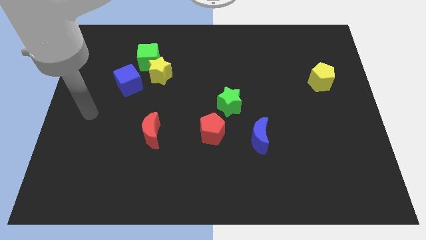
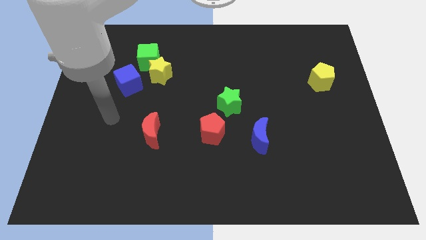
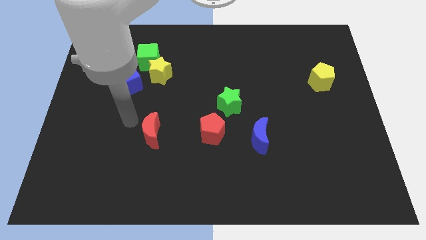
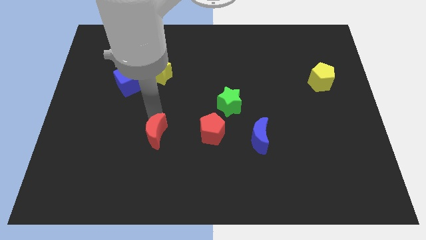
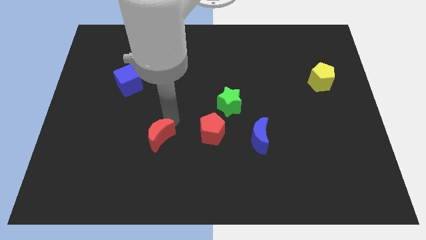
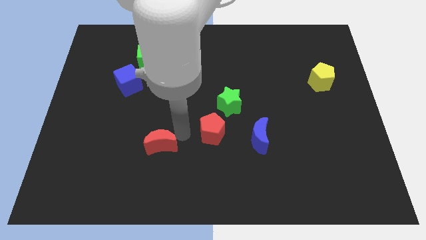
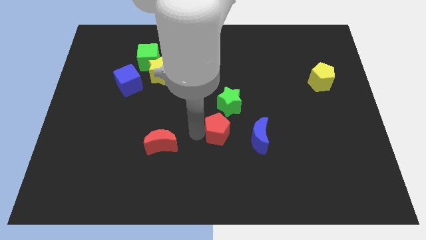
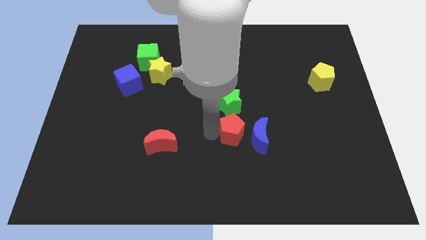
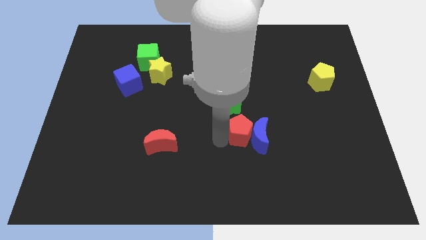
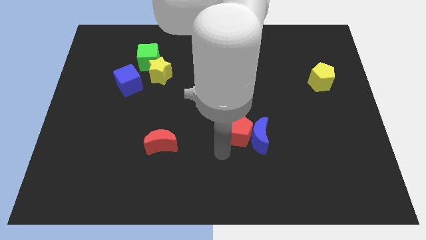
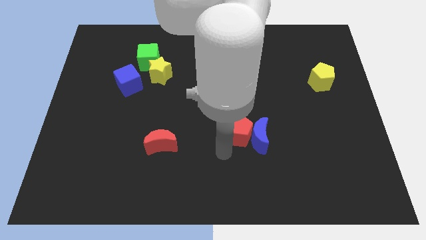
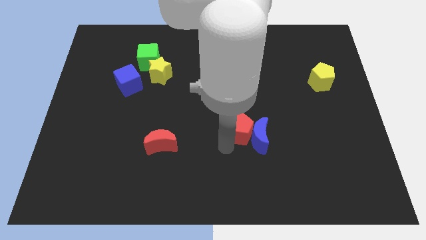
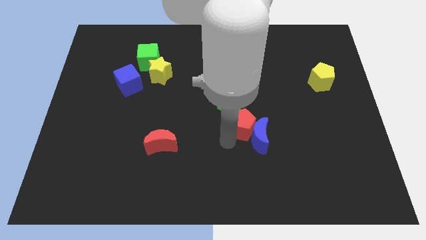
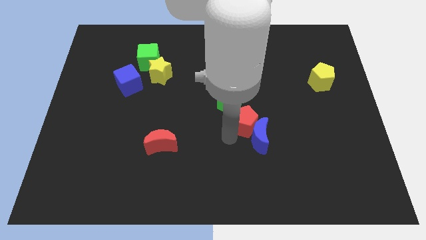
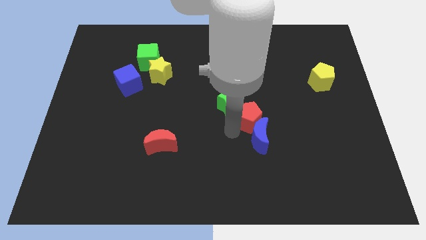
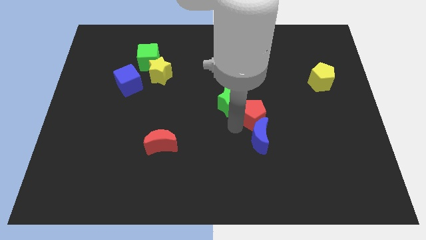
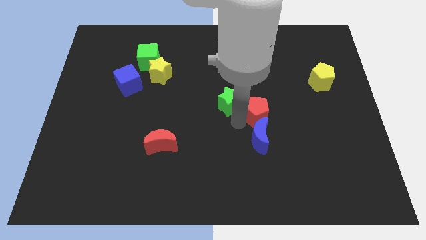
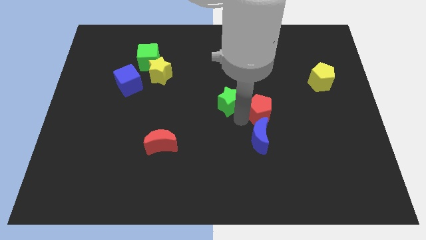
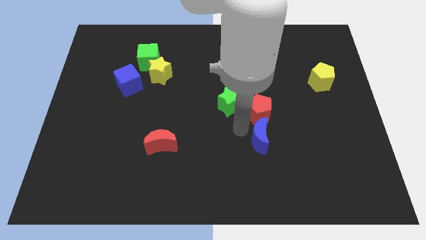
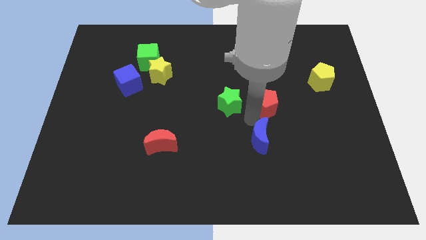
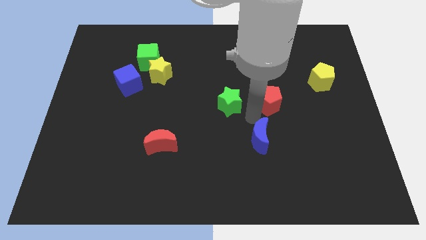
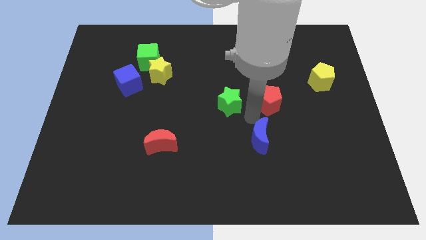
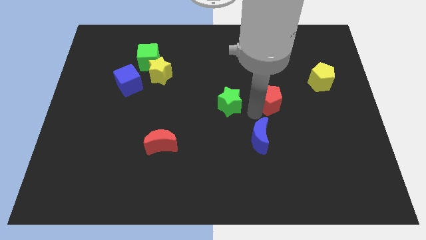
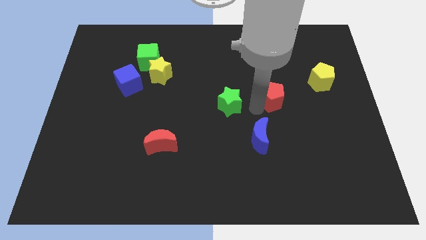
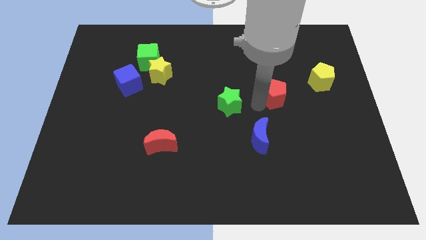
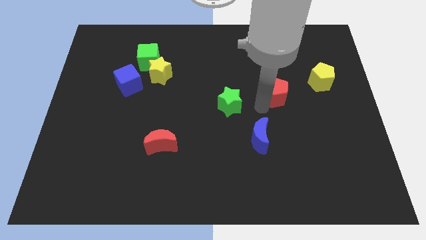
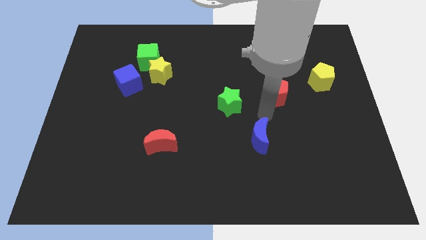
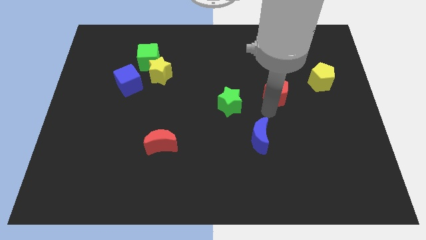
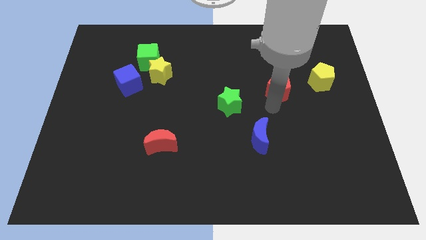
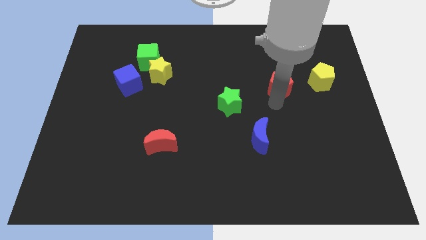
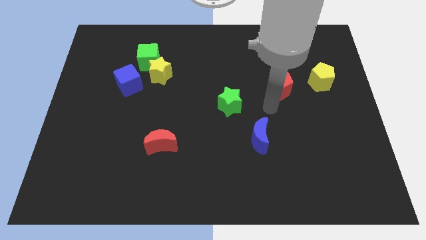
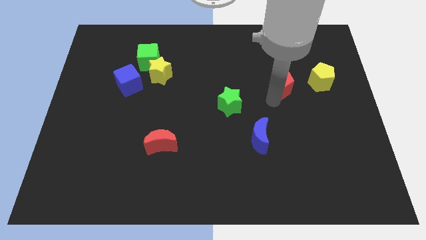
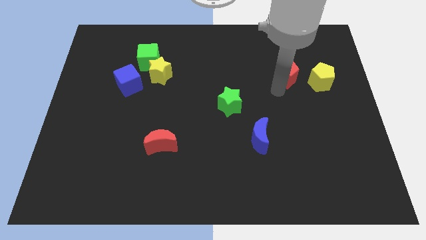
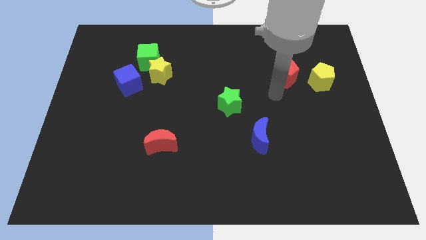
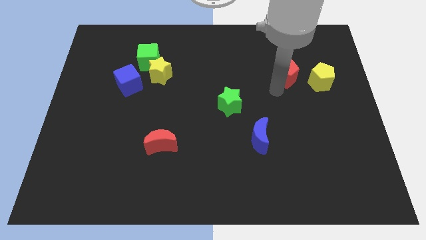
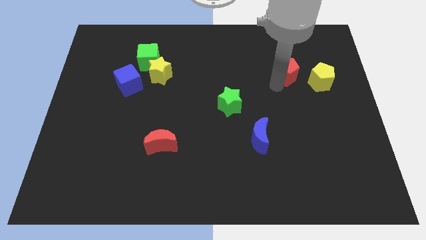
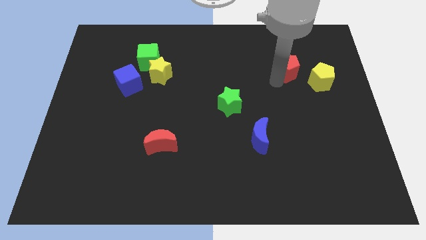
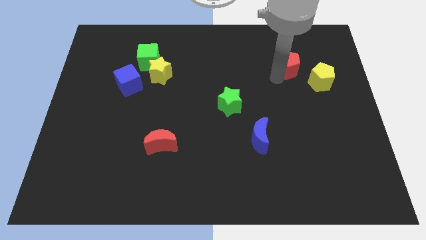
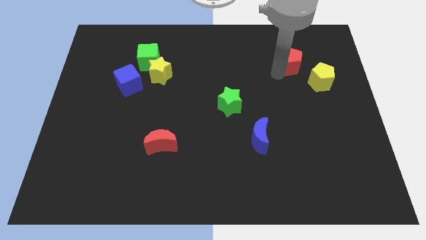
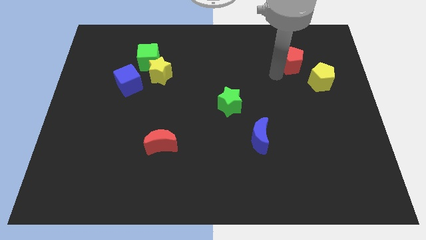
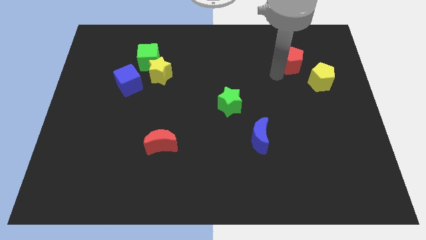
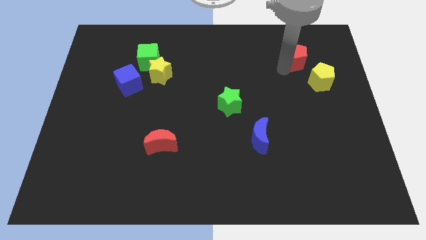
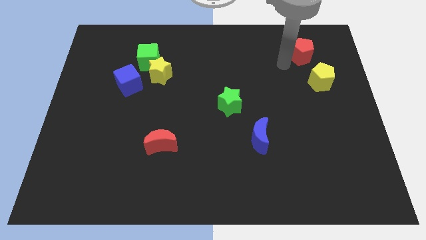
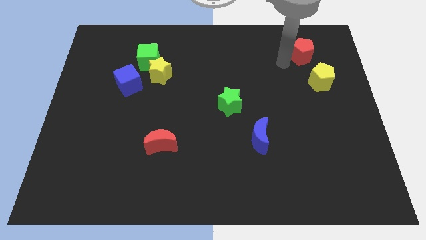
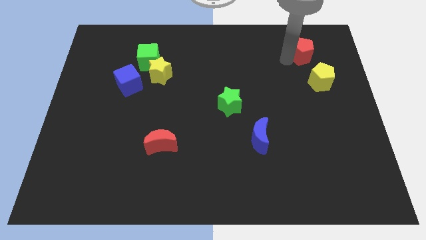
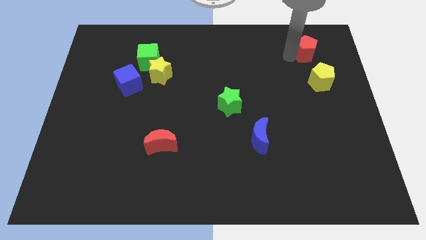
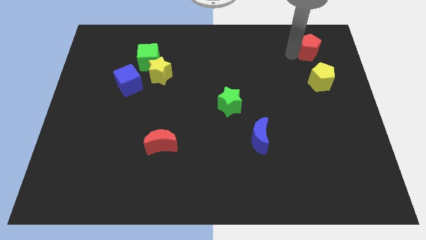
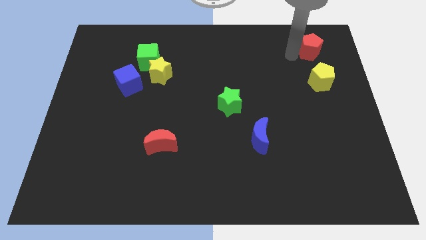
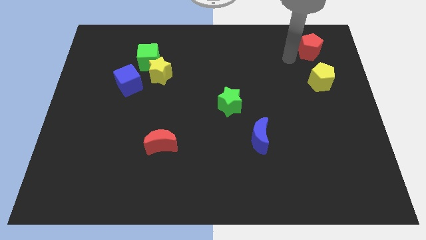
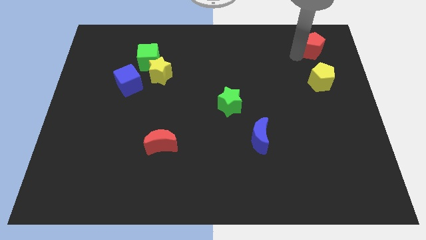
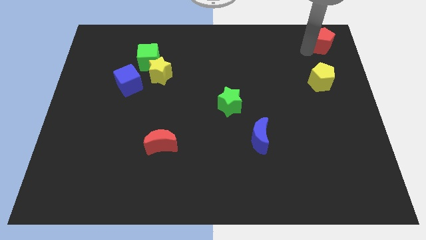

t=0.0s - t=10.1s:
push the red pentagon to the top right

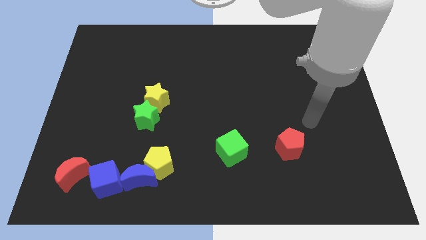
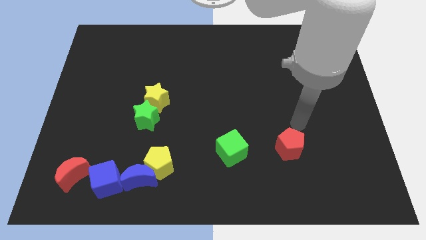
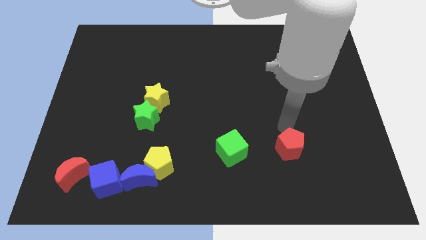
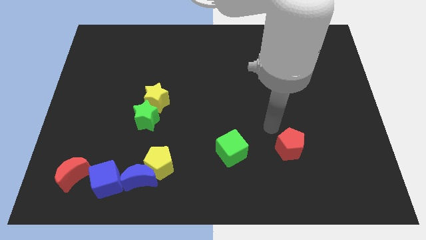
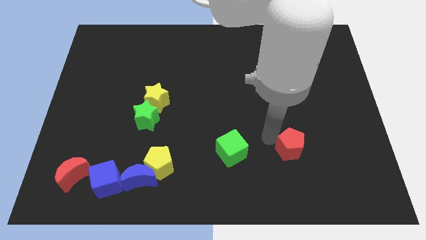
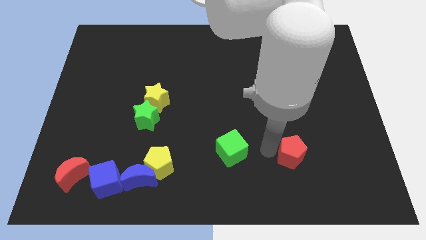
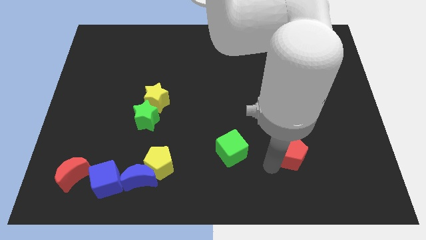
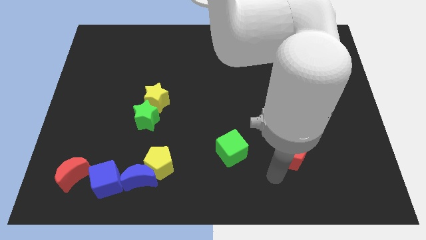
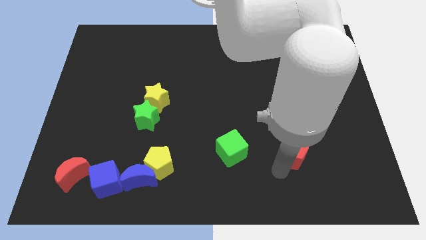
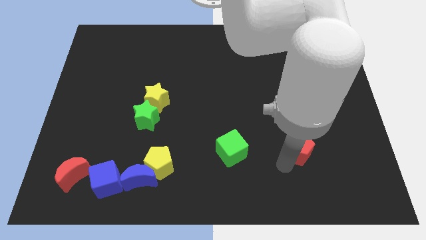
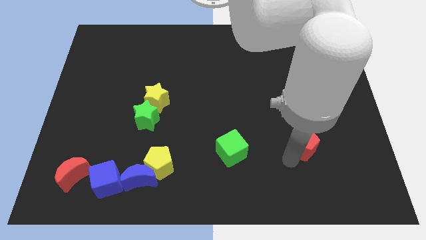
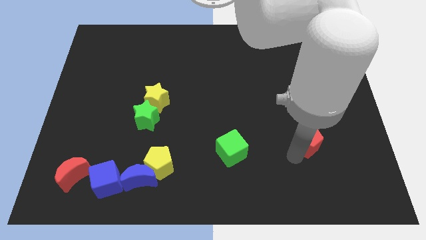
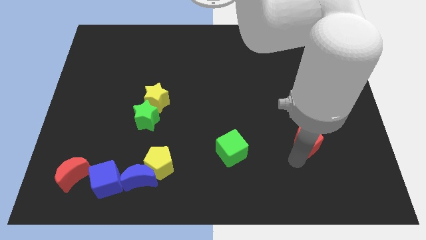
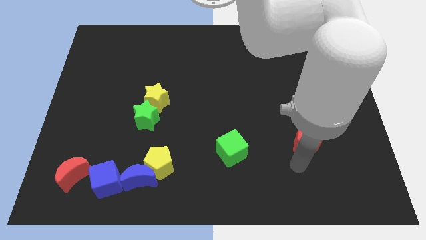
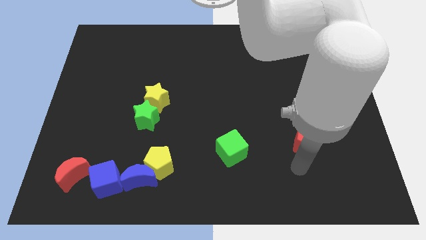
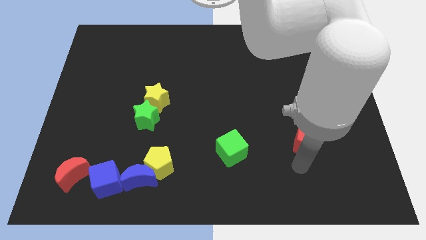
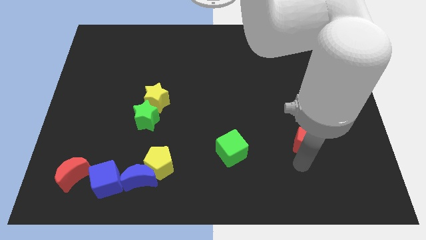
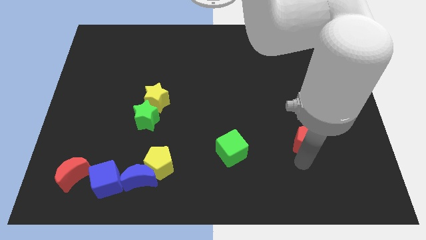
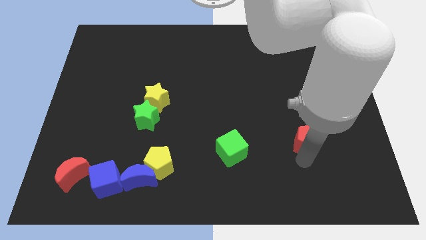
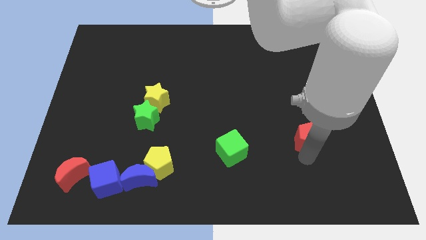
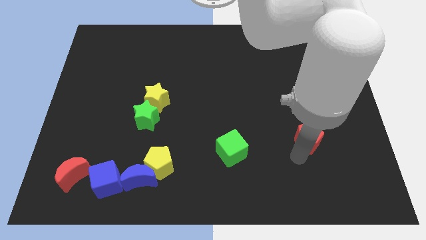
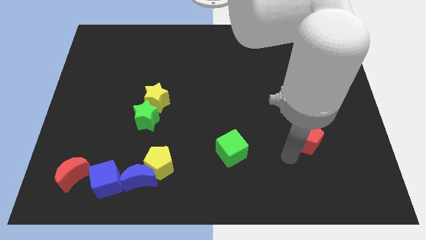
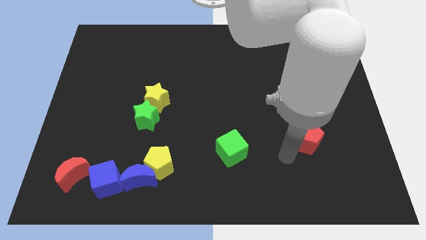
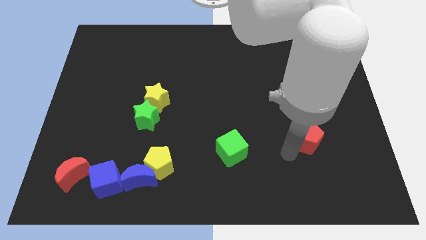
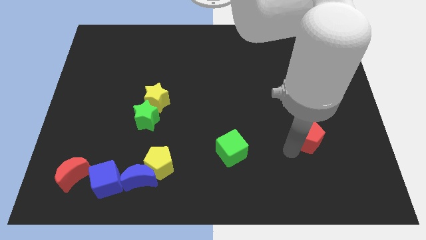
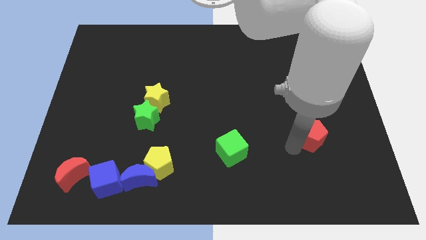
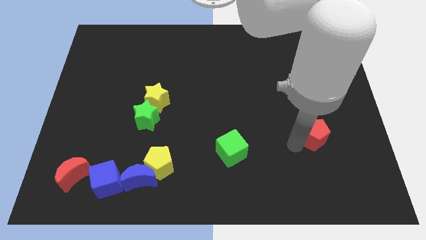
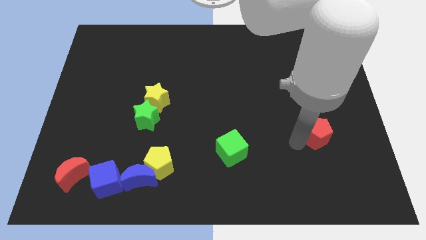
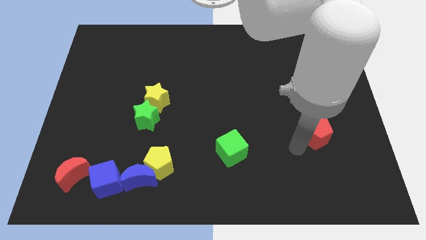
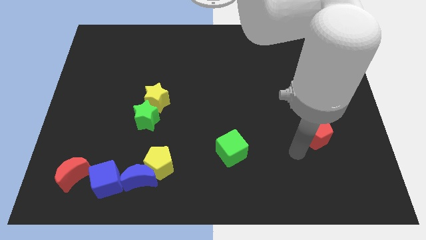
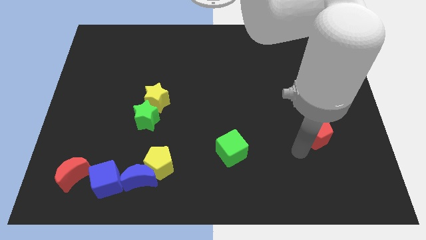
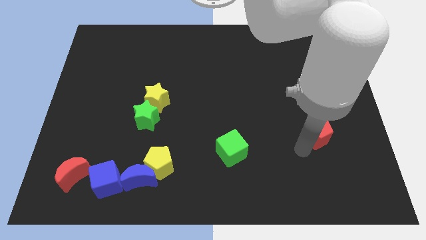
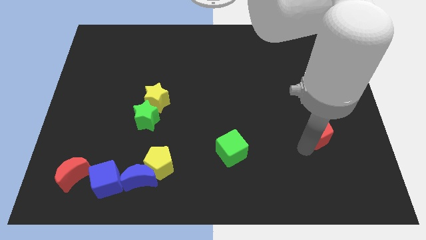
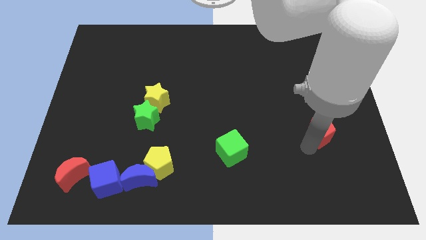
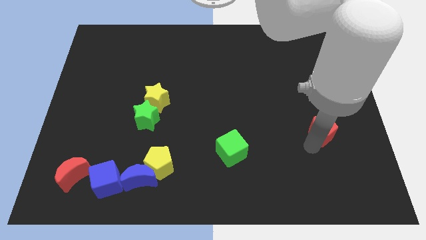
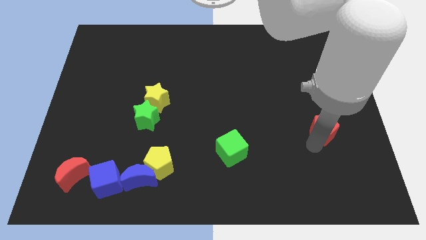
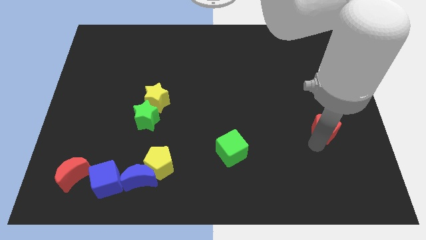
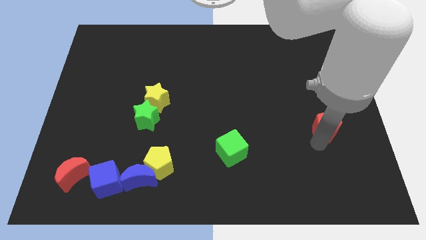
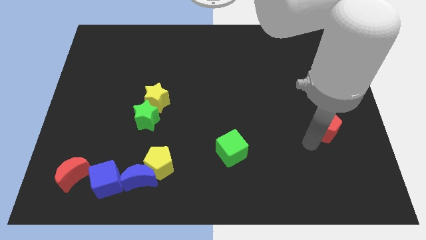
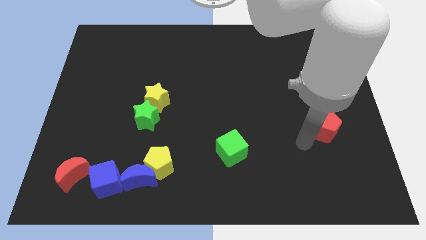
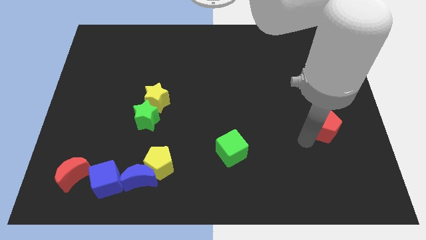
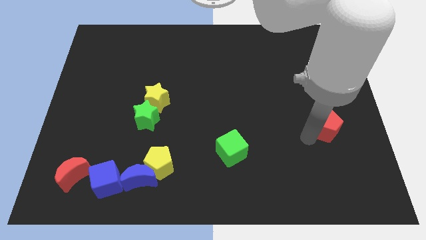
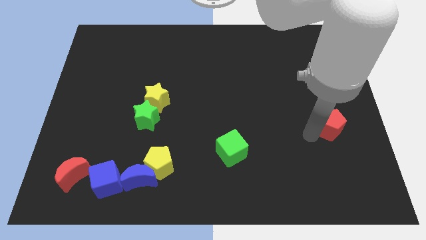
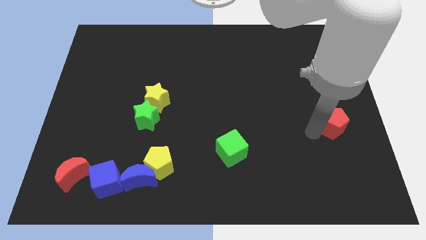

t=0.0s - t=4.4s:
slide the red pentagon to the right side
